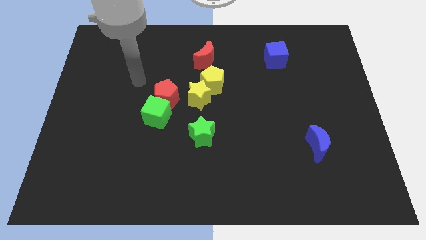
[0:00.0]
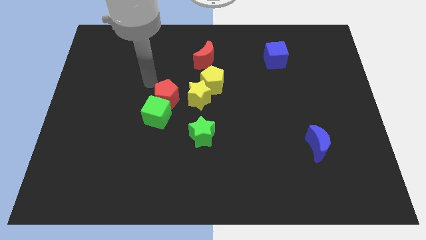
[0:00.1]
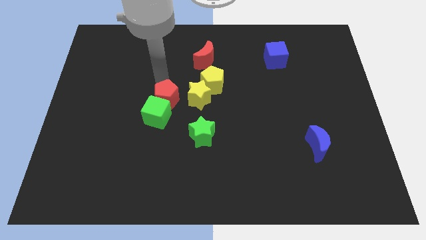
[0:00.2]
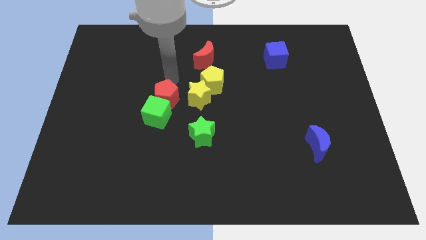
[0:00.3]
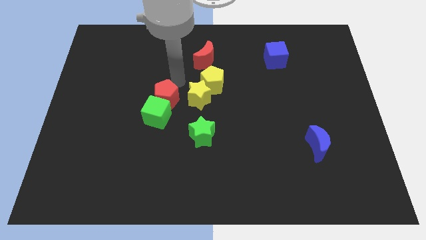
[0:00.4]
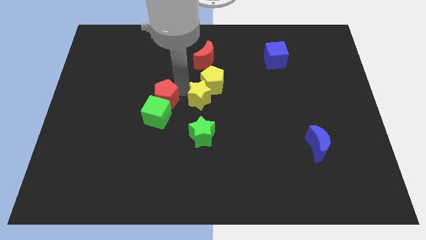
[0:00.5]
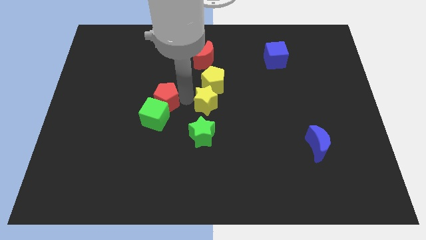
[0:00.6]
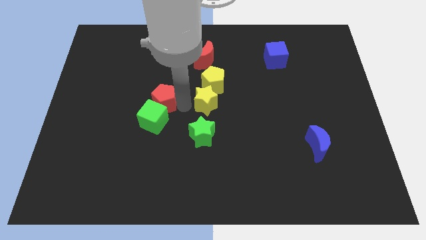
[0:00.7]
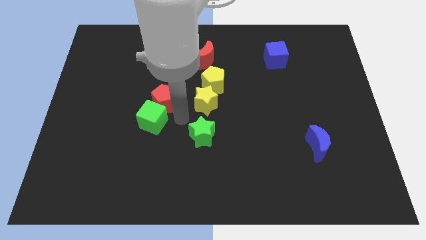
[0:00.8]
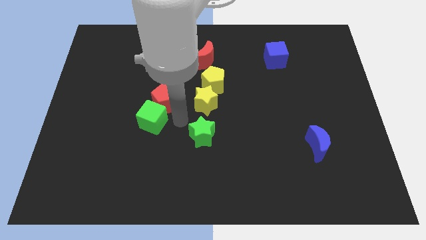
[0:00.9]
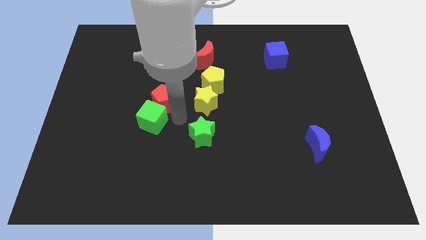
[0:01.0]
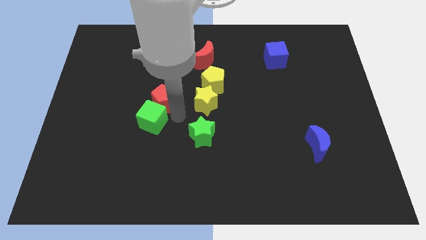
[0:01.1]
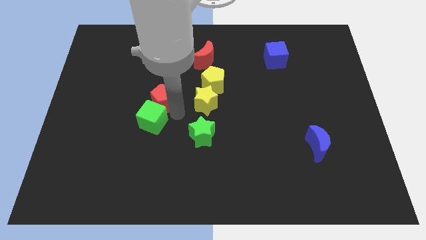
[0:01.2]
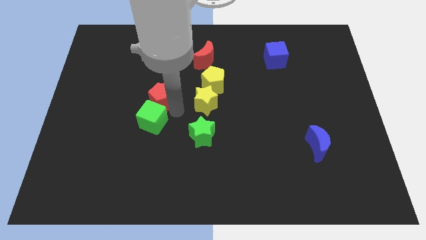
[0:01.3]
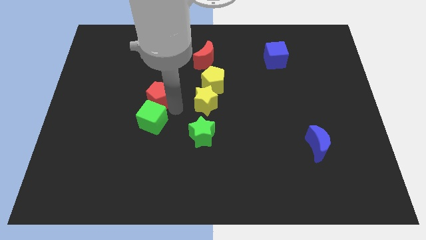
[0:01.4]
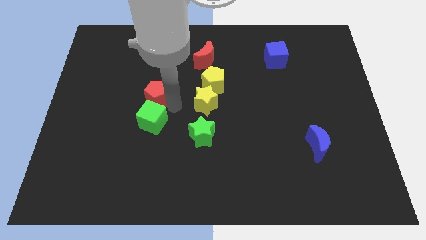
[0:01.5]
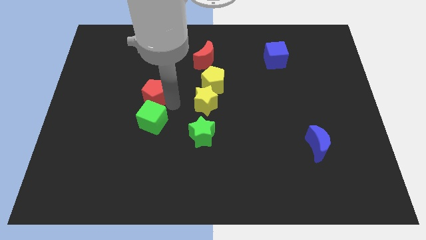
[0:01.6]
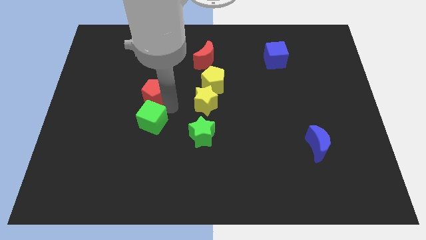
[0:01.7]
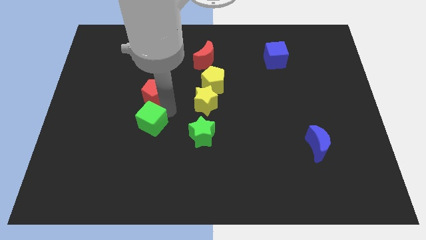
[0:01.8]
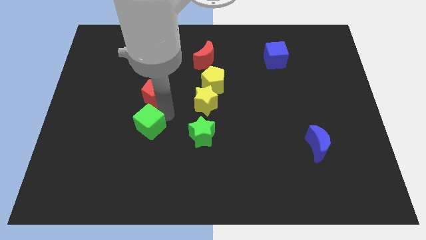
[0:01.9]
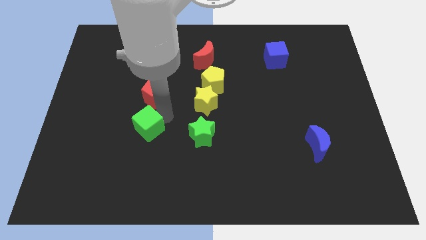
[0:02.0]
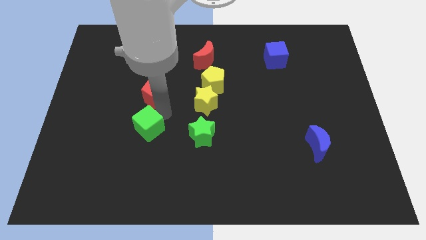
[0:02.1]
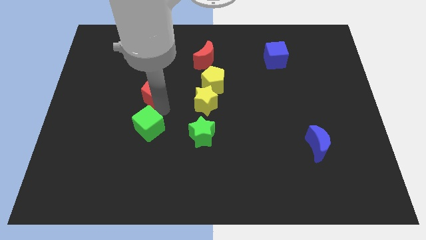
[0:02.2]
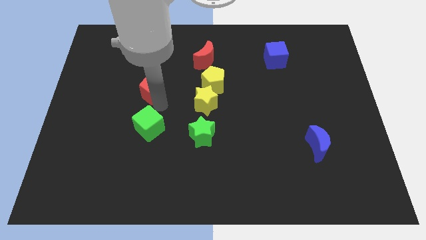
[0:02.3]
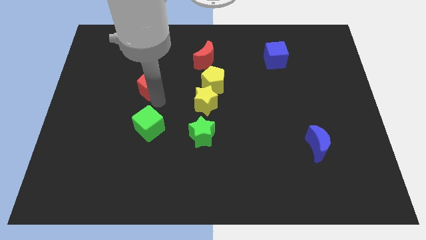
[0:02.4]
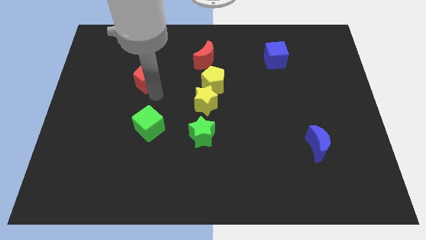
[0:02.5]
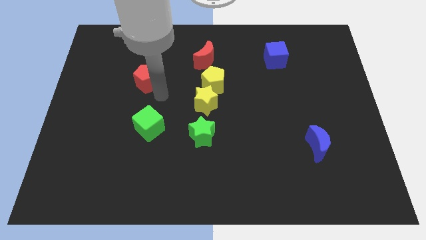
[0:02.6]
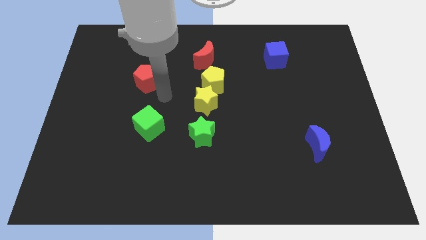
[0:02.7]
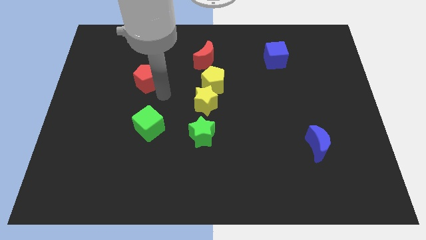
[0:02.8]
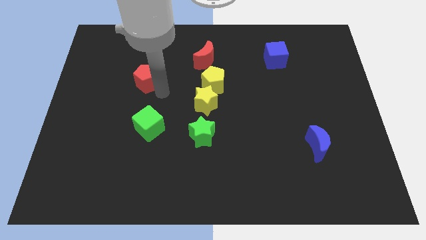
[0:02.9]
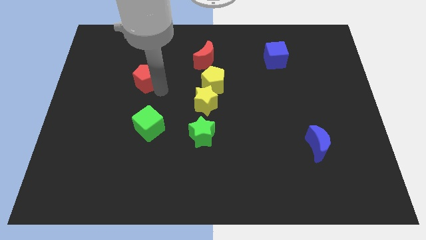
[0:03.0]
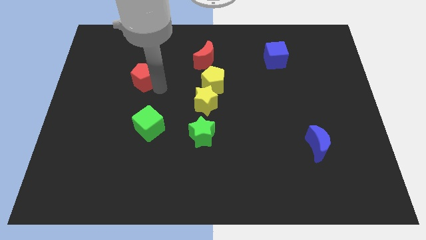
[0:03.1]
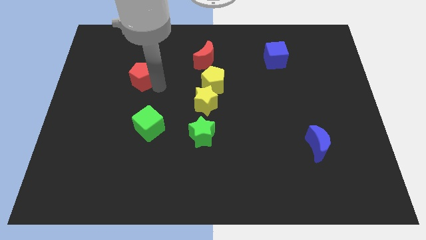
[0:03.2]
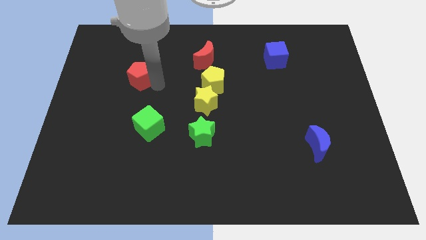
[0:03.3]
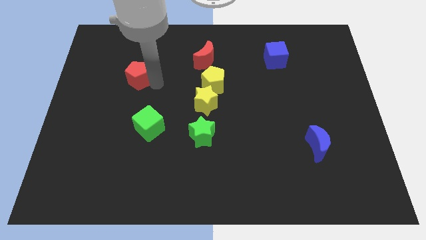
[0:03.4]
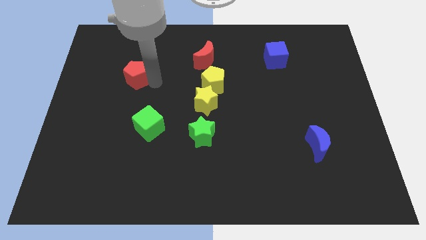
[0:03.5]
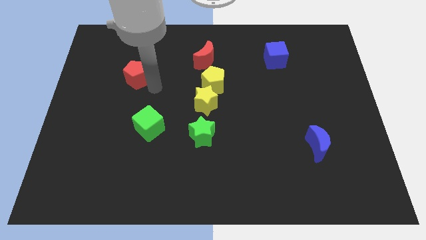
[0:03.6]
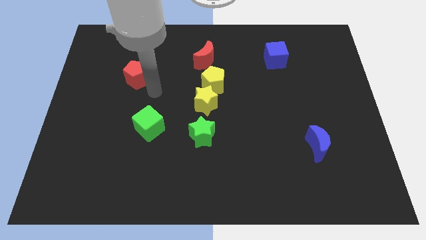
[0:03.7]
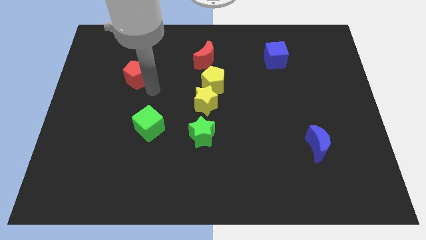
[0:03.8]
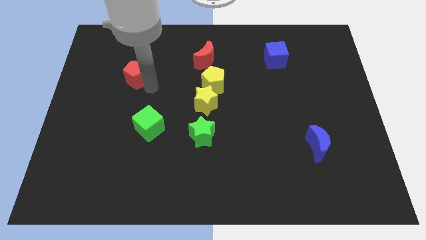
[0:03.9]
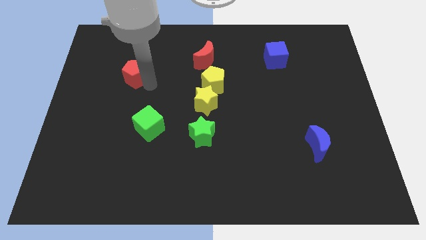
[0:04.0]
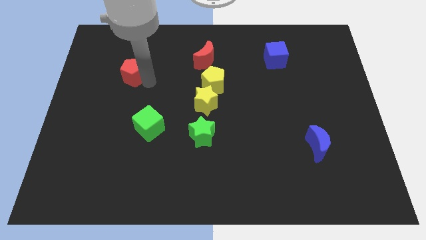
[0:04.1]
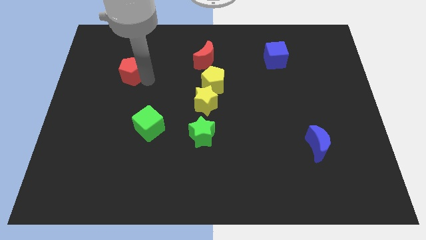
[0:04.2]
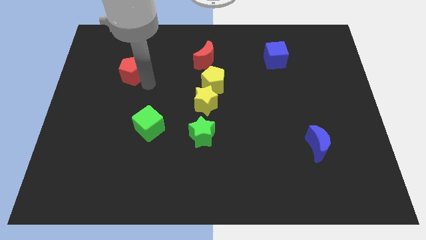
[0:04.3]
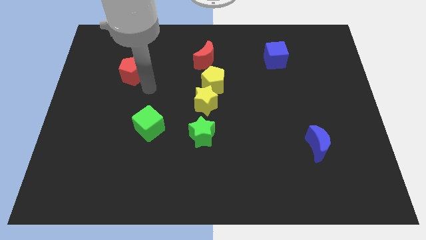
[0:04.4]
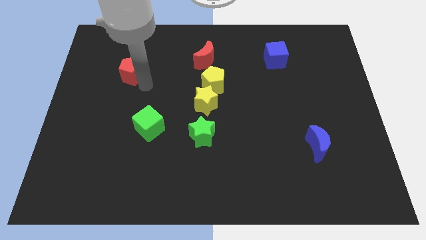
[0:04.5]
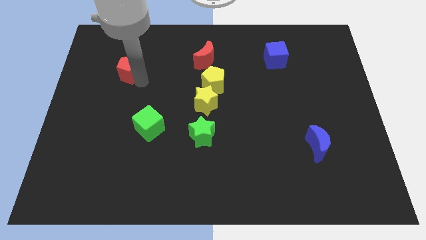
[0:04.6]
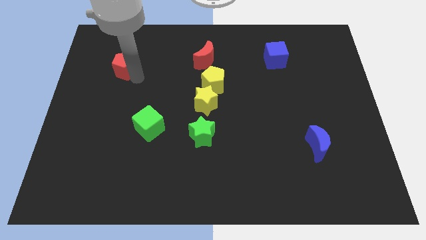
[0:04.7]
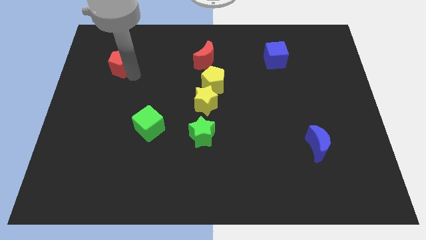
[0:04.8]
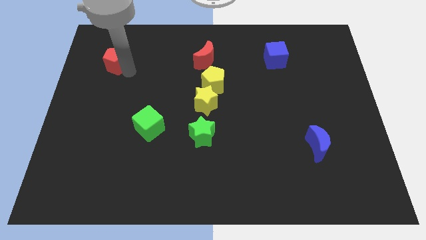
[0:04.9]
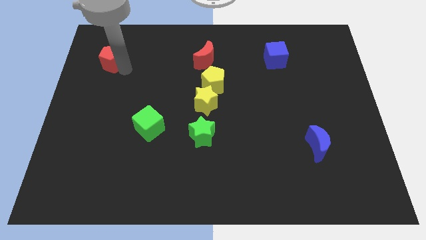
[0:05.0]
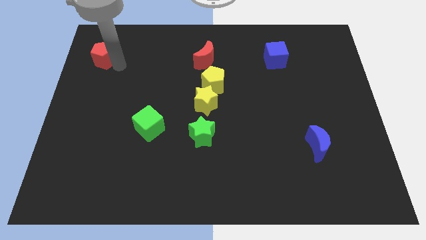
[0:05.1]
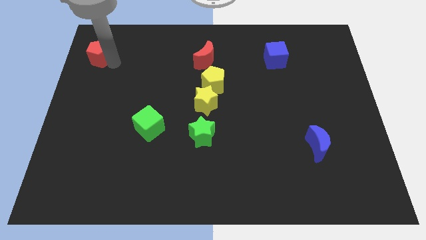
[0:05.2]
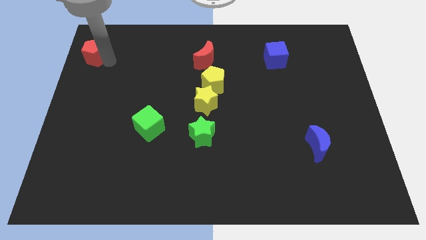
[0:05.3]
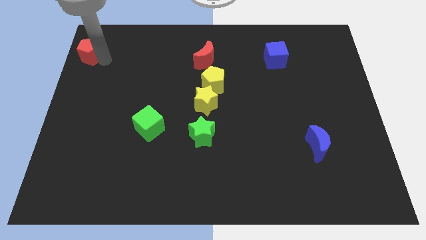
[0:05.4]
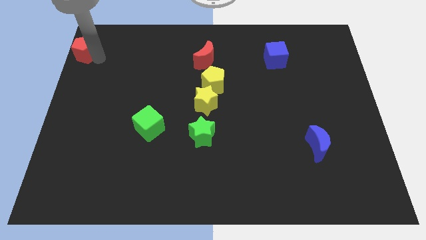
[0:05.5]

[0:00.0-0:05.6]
push the red pentagon to the top left corner
